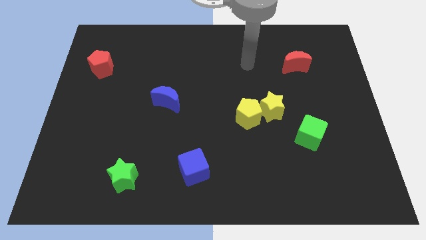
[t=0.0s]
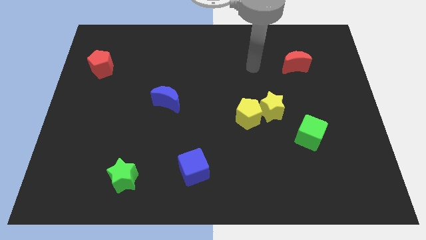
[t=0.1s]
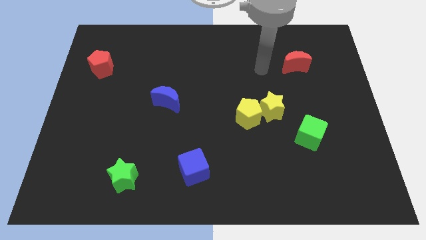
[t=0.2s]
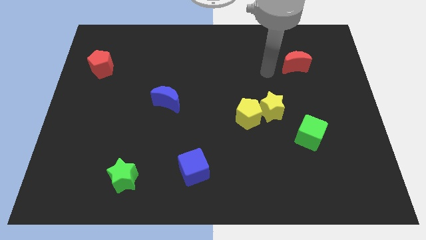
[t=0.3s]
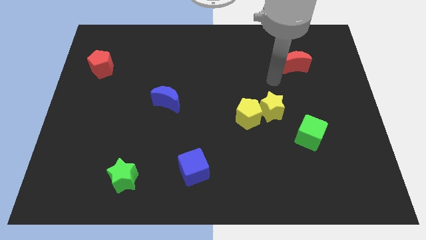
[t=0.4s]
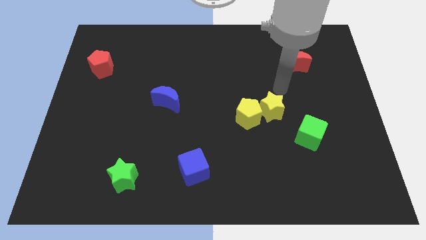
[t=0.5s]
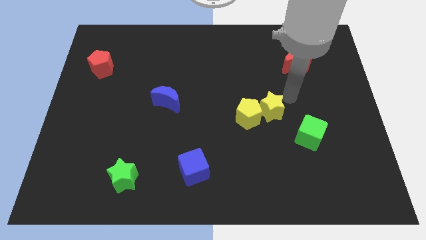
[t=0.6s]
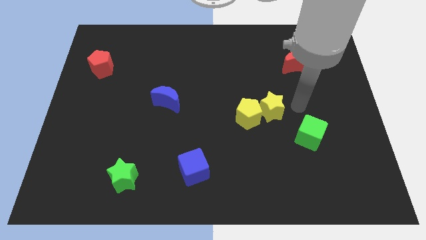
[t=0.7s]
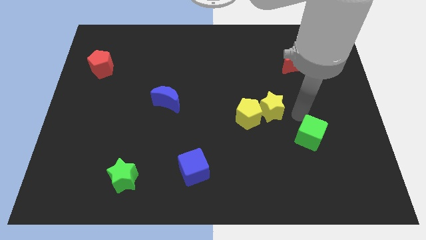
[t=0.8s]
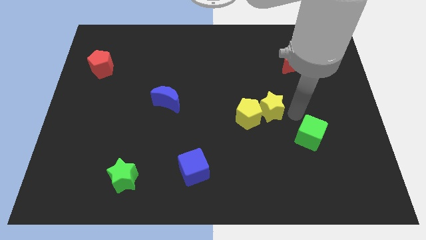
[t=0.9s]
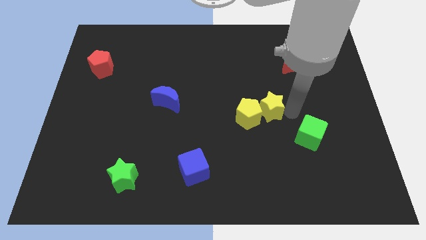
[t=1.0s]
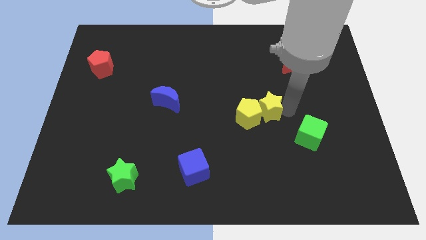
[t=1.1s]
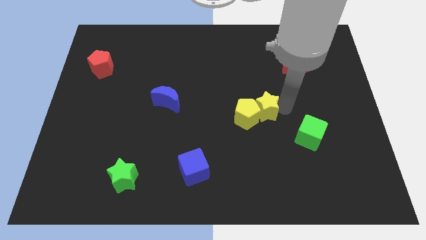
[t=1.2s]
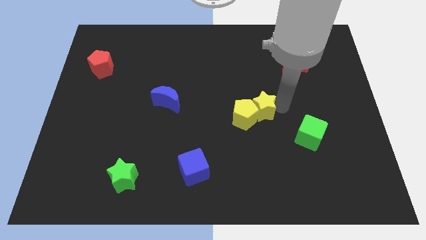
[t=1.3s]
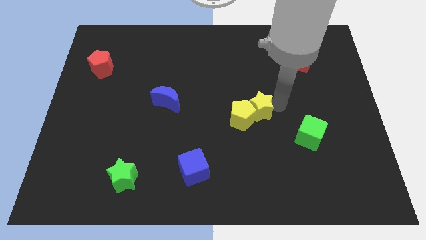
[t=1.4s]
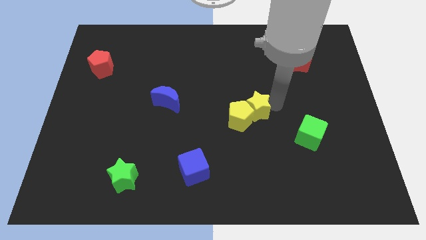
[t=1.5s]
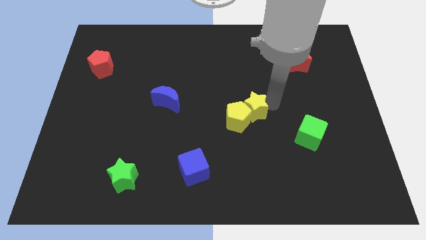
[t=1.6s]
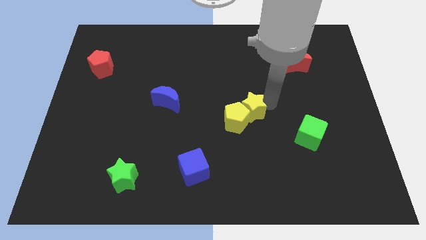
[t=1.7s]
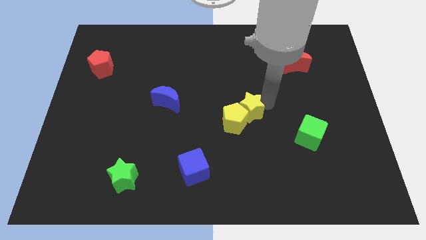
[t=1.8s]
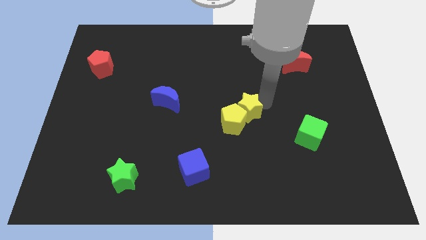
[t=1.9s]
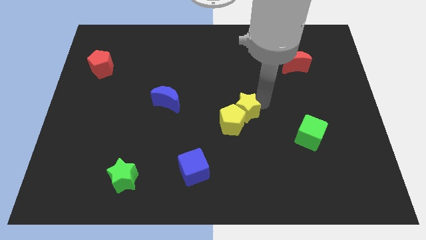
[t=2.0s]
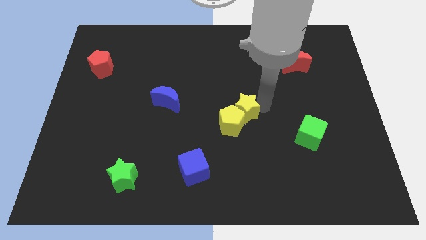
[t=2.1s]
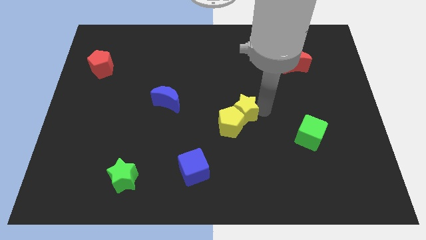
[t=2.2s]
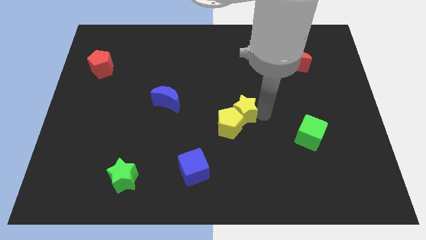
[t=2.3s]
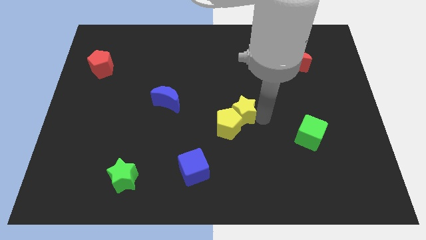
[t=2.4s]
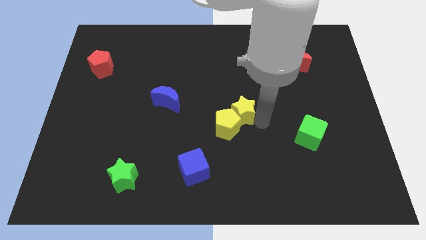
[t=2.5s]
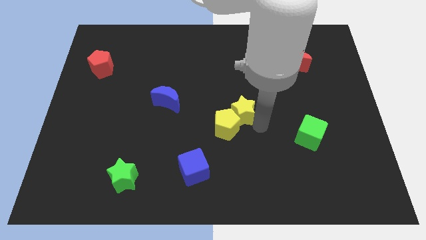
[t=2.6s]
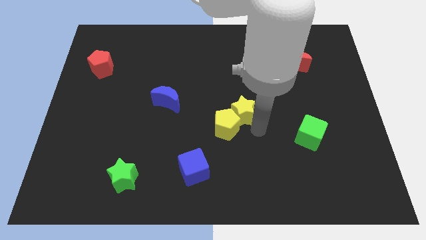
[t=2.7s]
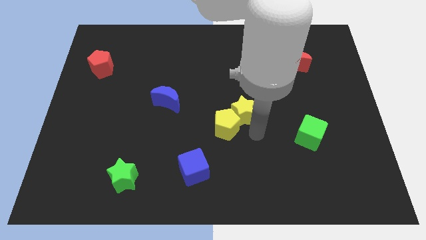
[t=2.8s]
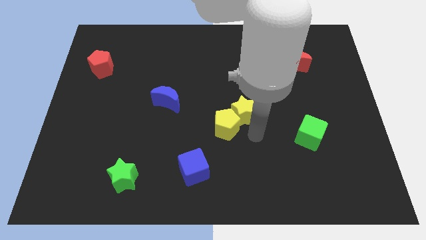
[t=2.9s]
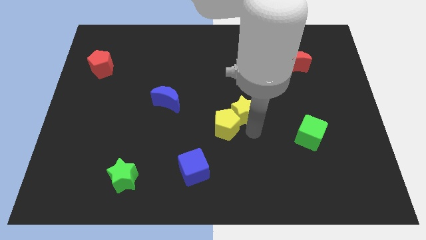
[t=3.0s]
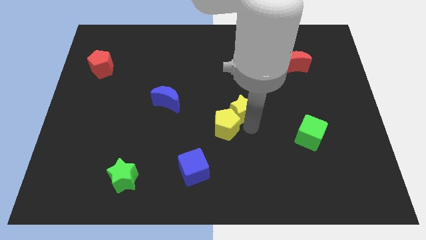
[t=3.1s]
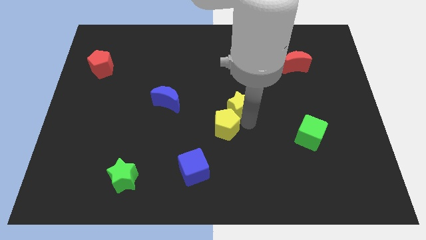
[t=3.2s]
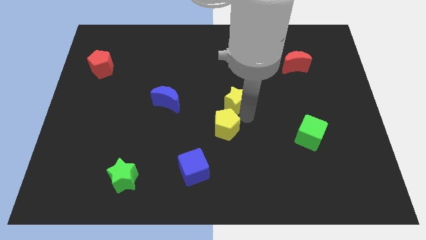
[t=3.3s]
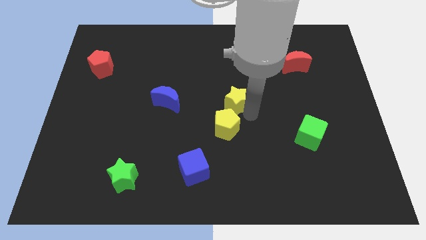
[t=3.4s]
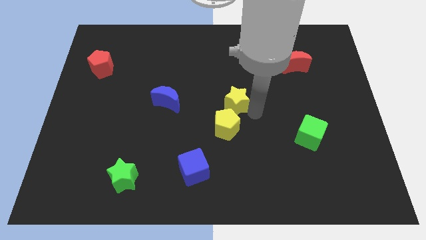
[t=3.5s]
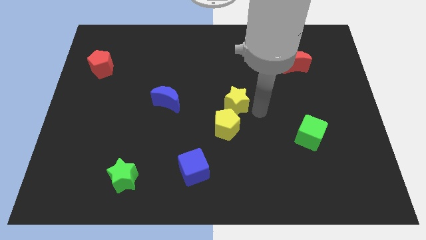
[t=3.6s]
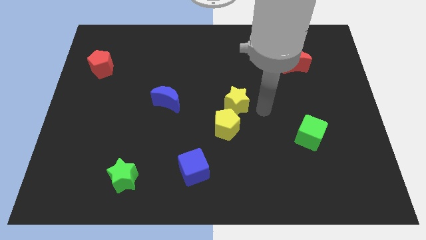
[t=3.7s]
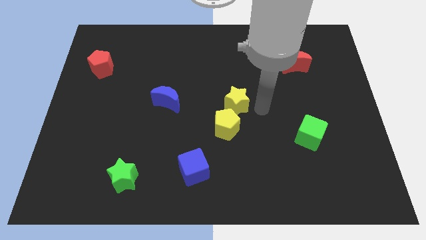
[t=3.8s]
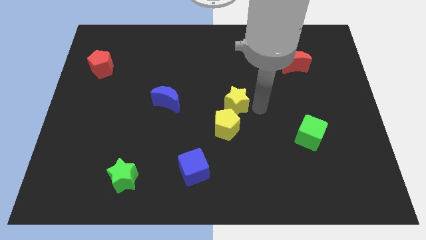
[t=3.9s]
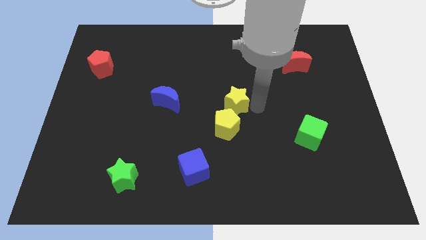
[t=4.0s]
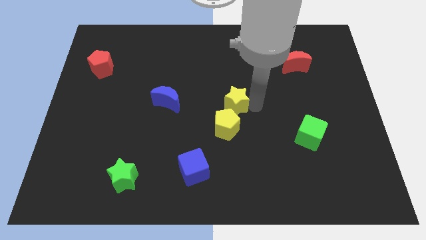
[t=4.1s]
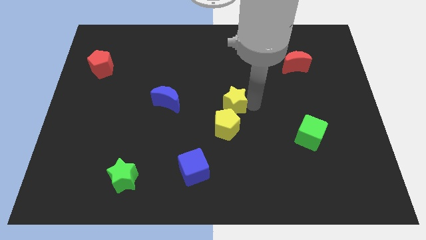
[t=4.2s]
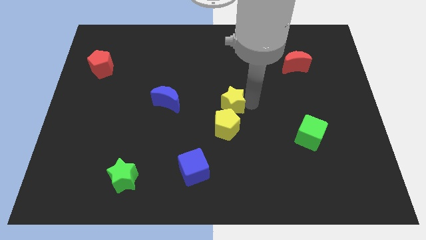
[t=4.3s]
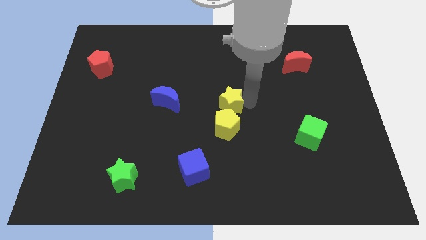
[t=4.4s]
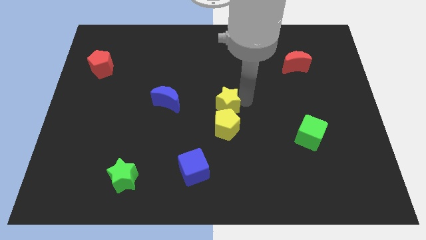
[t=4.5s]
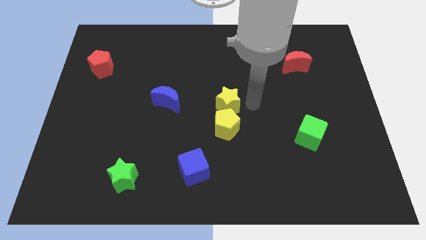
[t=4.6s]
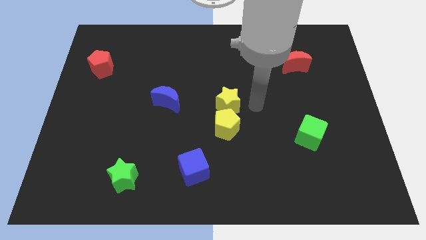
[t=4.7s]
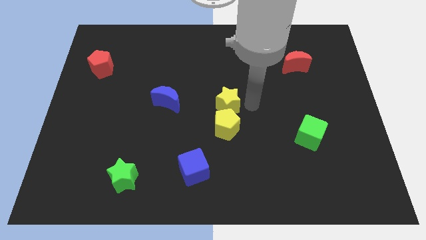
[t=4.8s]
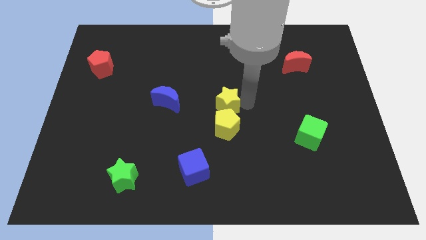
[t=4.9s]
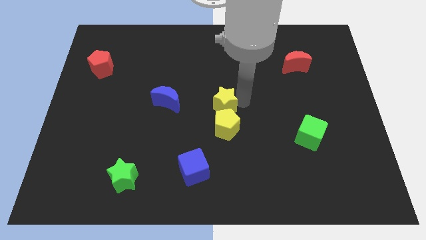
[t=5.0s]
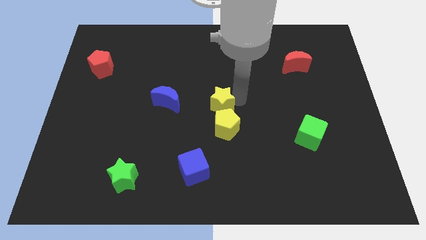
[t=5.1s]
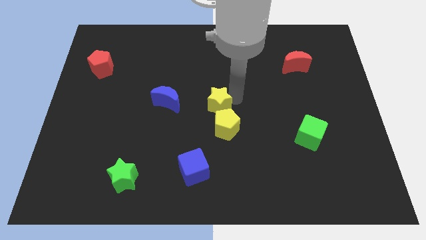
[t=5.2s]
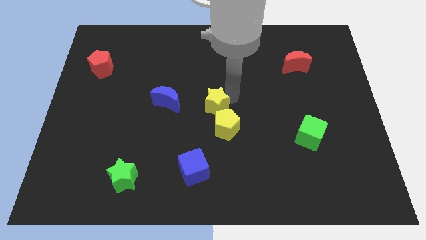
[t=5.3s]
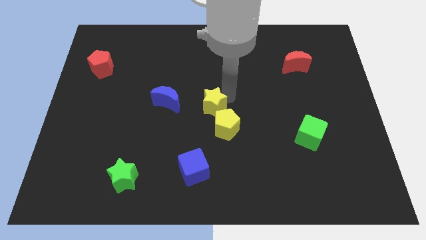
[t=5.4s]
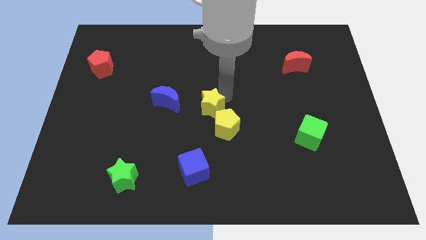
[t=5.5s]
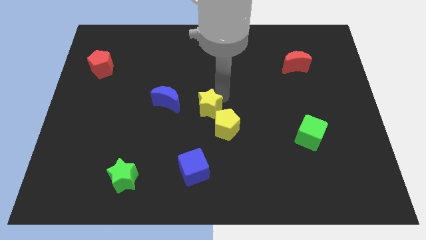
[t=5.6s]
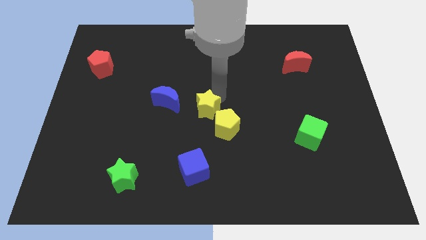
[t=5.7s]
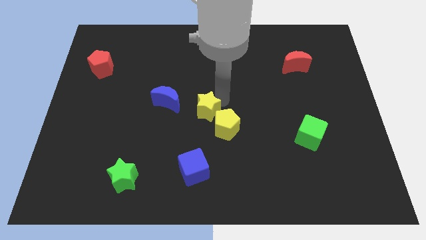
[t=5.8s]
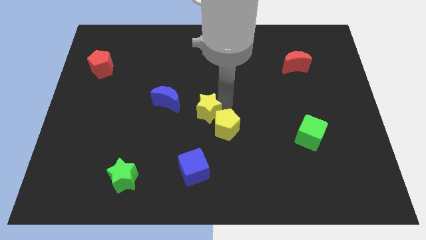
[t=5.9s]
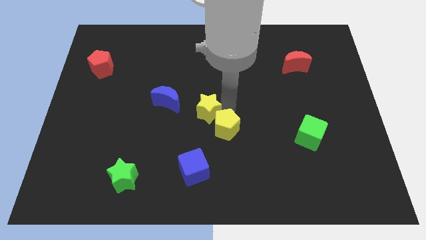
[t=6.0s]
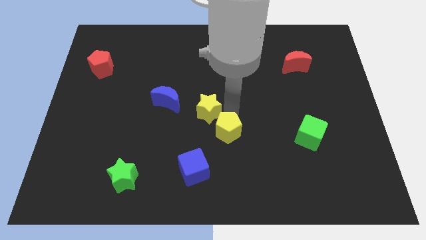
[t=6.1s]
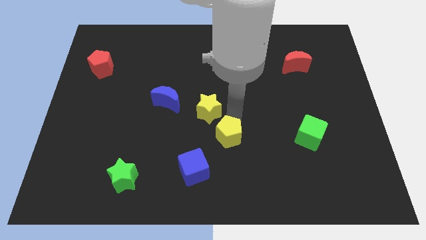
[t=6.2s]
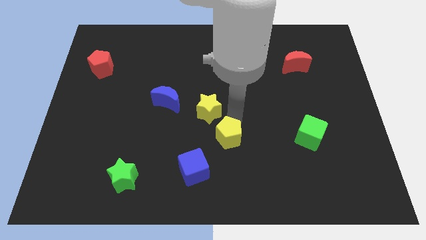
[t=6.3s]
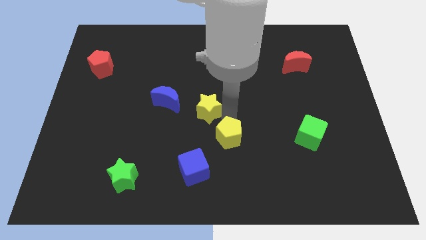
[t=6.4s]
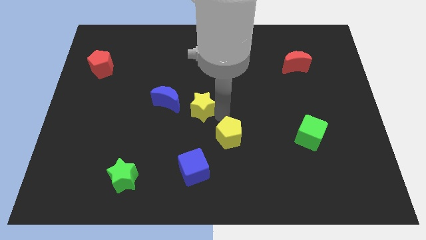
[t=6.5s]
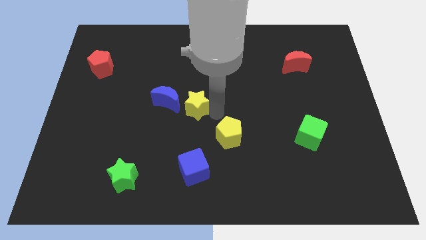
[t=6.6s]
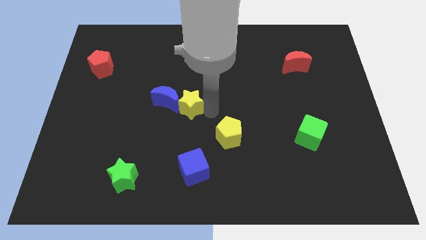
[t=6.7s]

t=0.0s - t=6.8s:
move the yellow star to the blue moon
